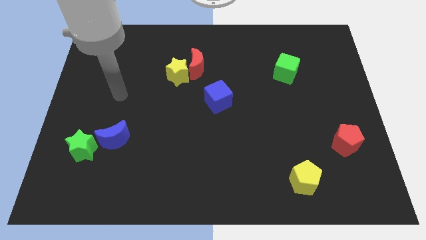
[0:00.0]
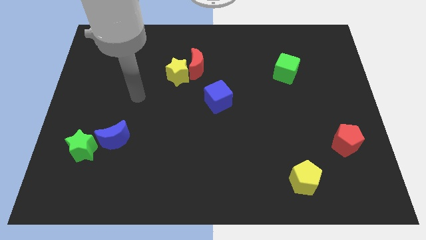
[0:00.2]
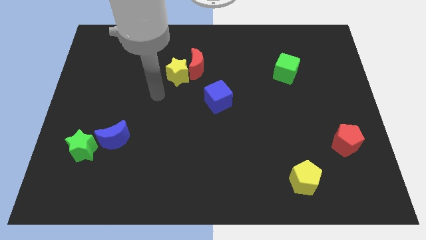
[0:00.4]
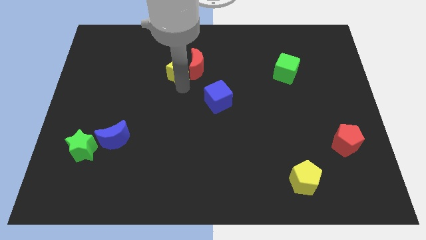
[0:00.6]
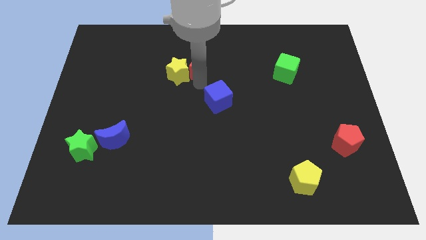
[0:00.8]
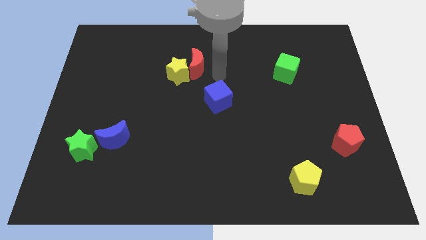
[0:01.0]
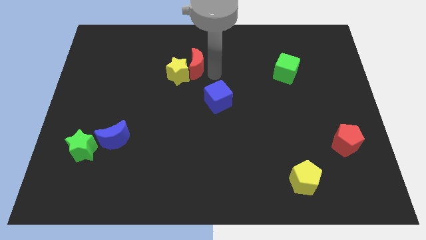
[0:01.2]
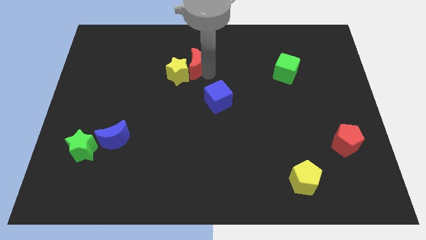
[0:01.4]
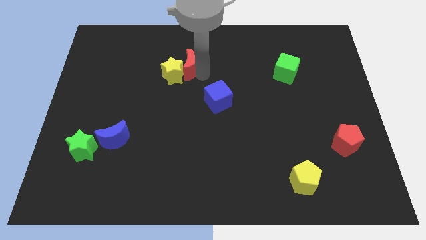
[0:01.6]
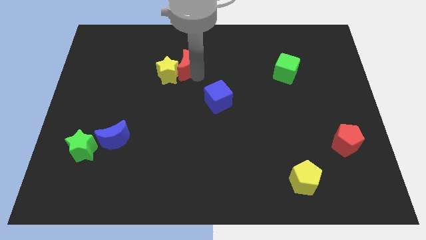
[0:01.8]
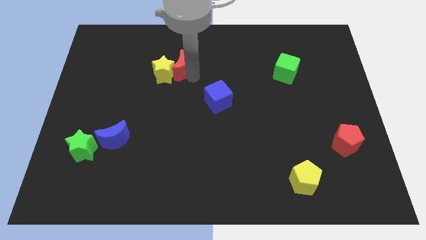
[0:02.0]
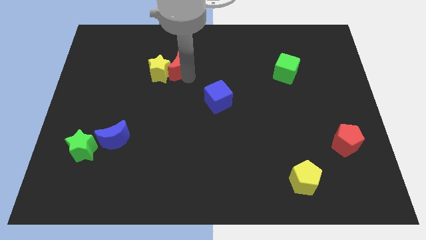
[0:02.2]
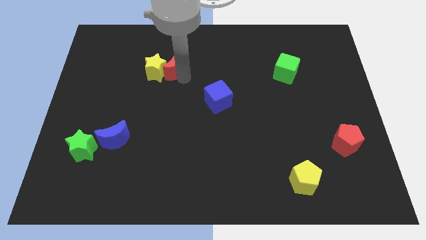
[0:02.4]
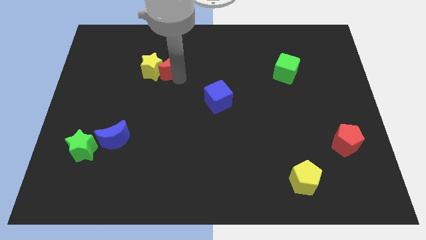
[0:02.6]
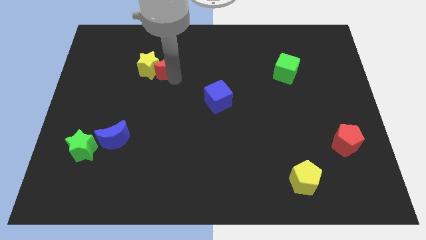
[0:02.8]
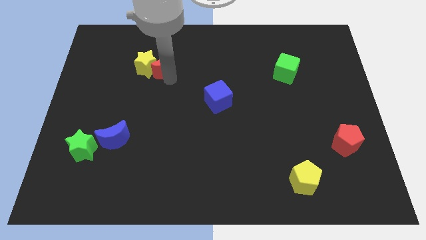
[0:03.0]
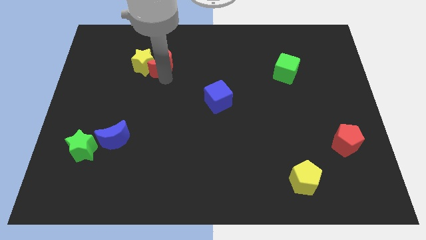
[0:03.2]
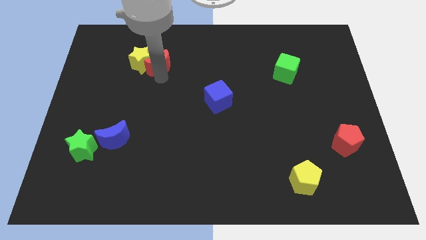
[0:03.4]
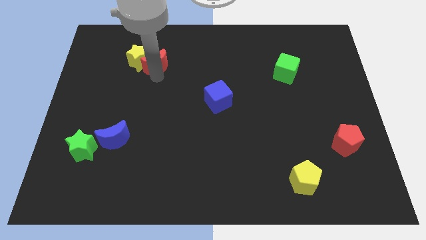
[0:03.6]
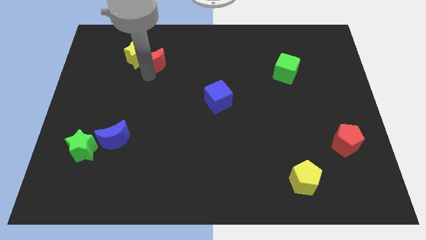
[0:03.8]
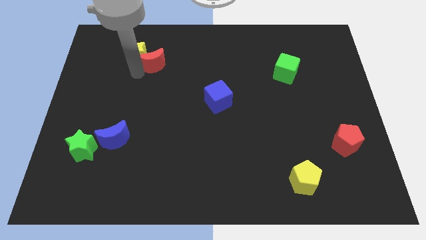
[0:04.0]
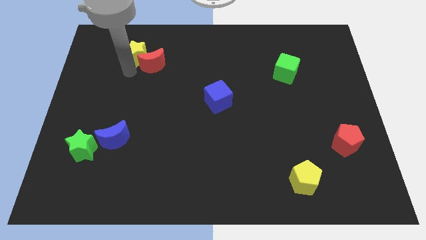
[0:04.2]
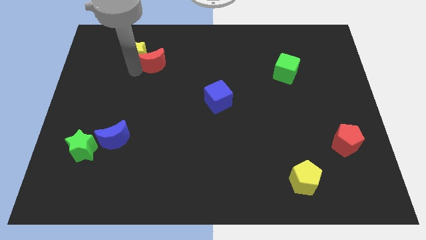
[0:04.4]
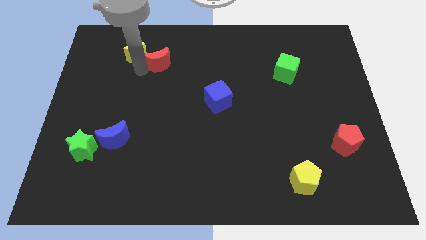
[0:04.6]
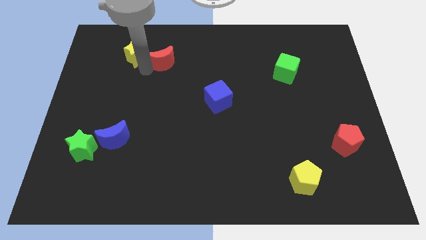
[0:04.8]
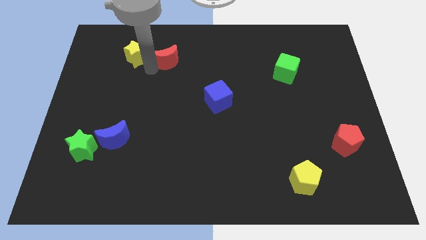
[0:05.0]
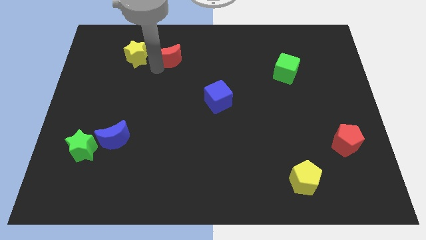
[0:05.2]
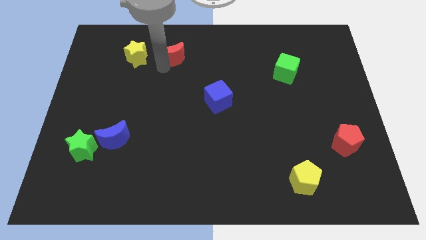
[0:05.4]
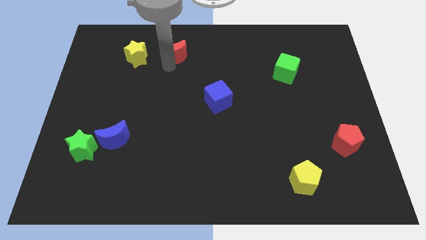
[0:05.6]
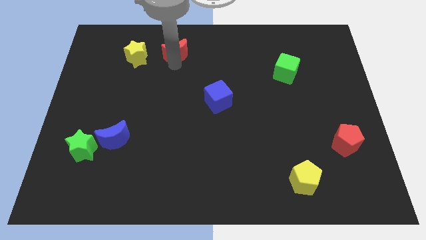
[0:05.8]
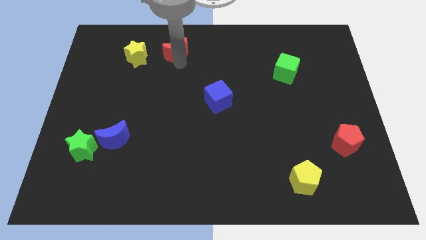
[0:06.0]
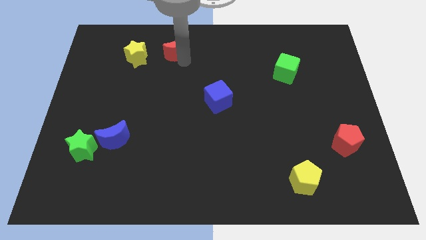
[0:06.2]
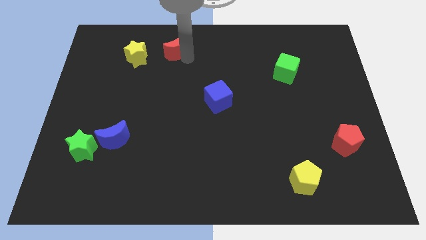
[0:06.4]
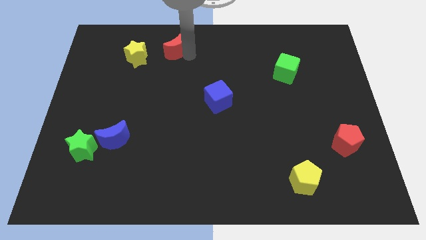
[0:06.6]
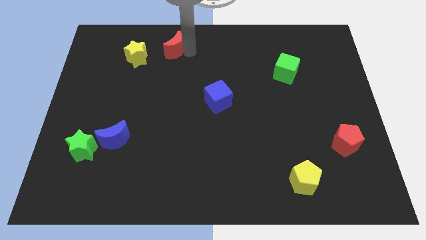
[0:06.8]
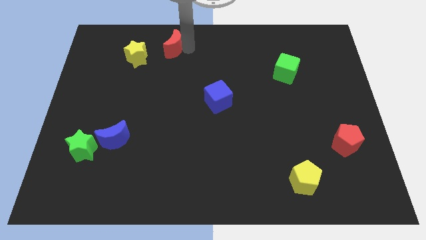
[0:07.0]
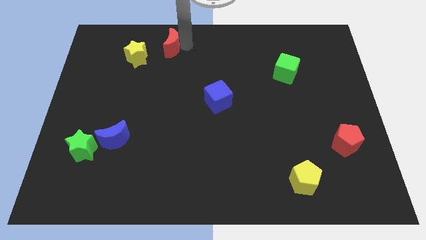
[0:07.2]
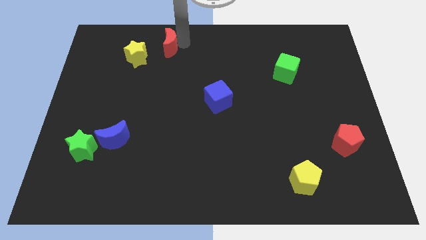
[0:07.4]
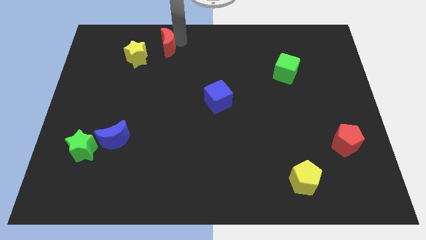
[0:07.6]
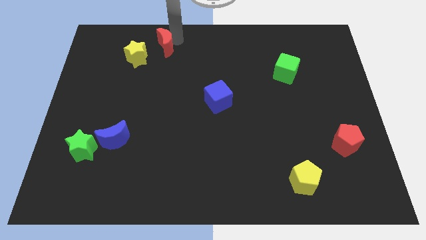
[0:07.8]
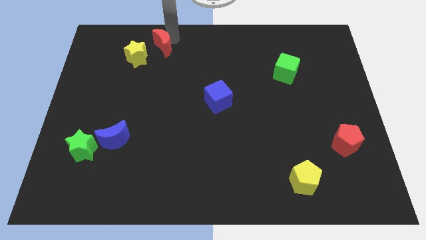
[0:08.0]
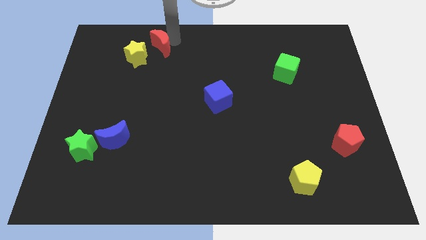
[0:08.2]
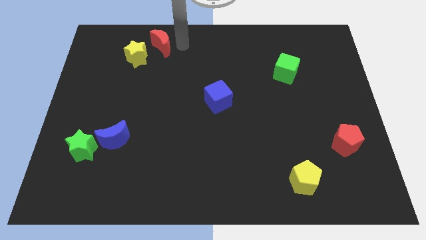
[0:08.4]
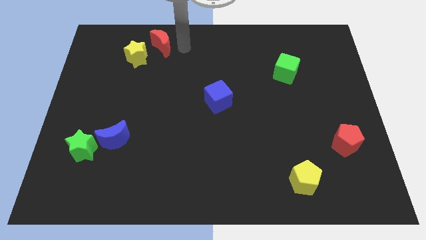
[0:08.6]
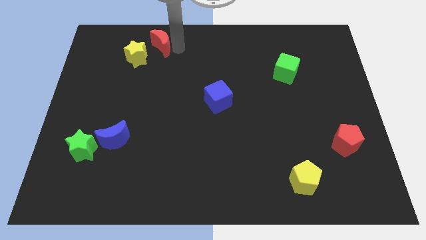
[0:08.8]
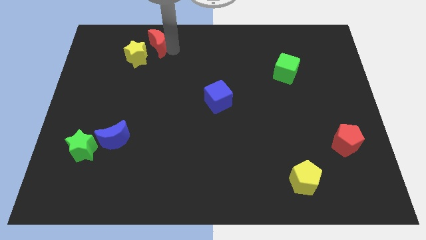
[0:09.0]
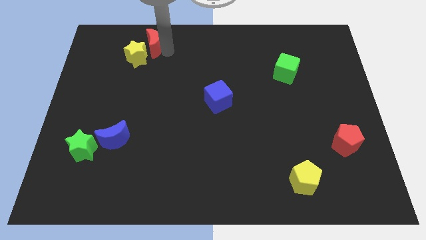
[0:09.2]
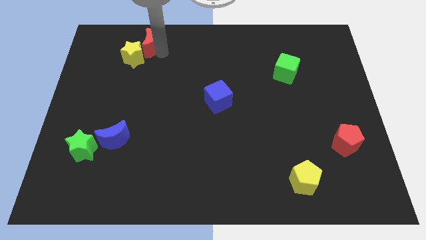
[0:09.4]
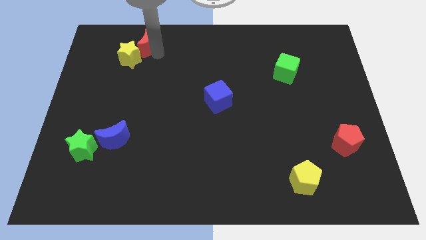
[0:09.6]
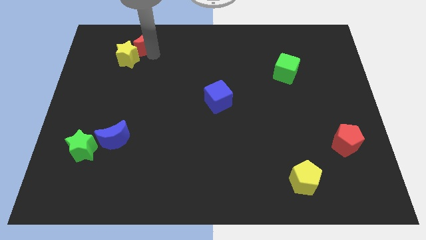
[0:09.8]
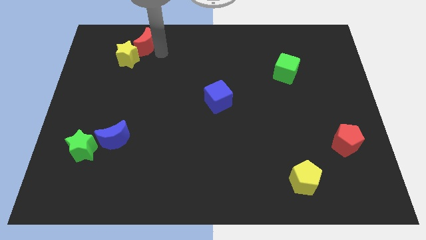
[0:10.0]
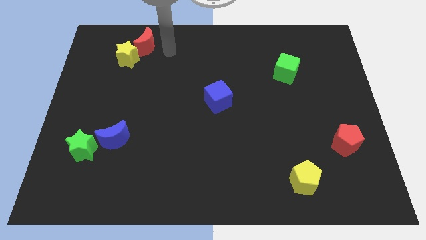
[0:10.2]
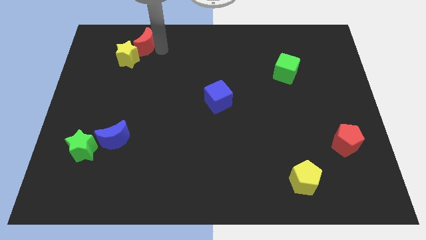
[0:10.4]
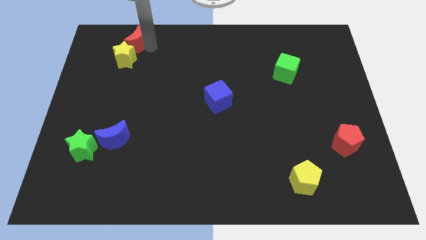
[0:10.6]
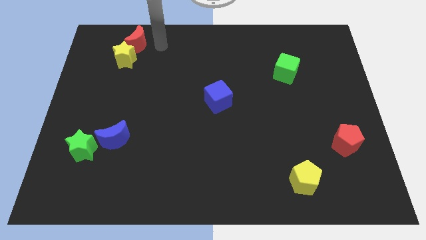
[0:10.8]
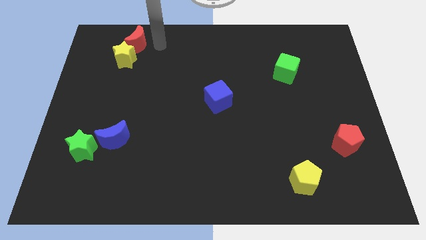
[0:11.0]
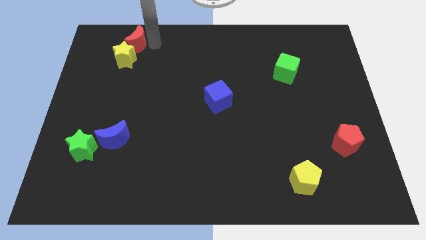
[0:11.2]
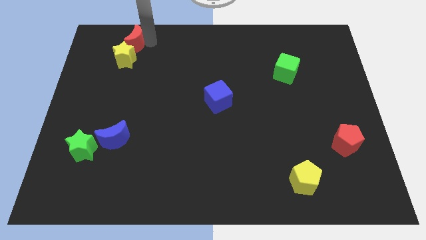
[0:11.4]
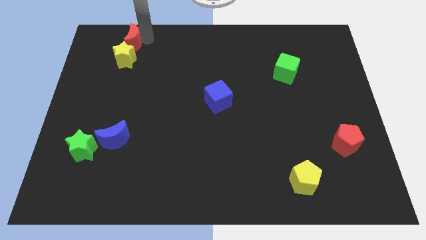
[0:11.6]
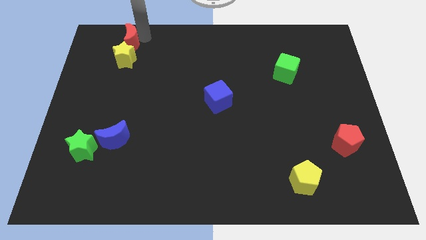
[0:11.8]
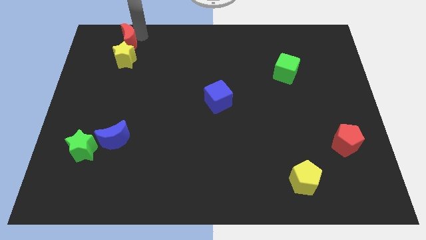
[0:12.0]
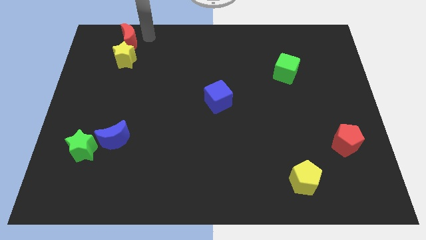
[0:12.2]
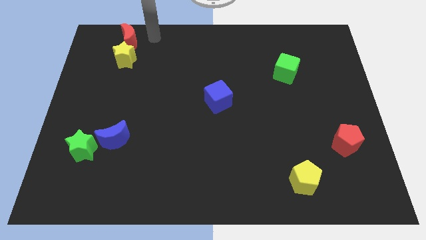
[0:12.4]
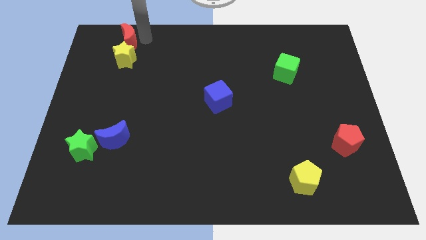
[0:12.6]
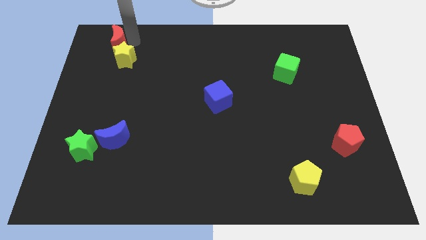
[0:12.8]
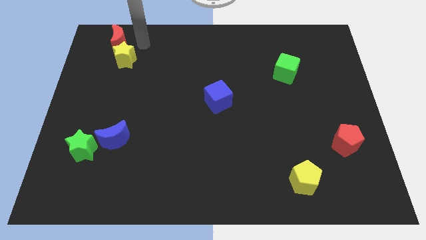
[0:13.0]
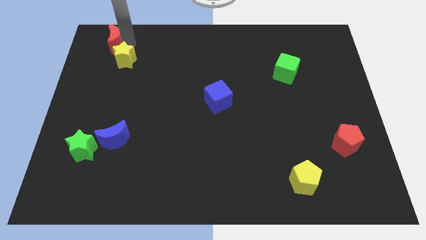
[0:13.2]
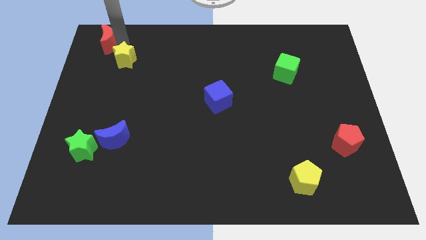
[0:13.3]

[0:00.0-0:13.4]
push the red moon to the top left
